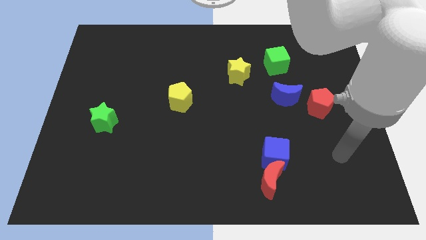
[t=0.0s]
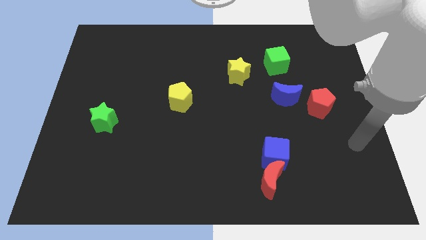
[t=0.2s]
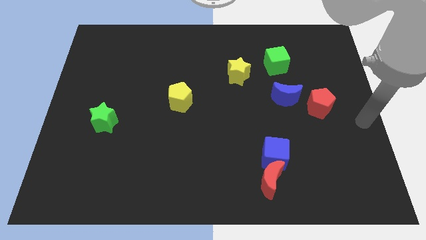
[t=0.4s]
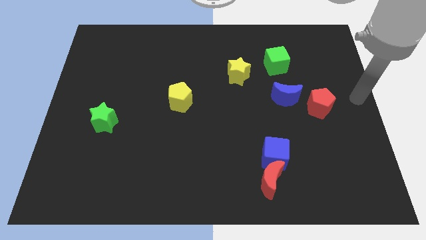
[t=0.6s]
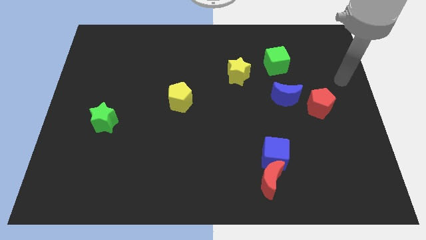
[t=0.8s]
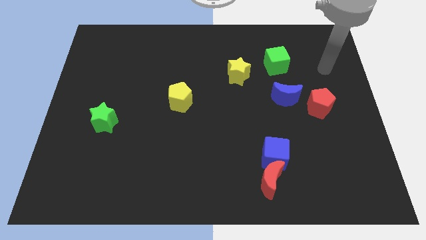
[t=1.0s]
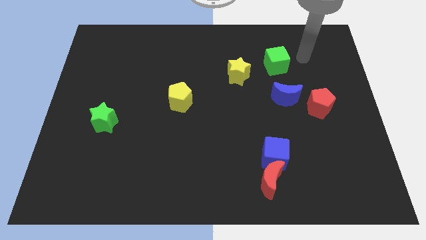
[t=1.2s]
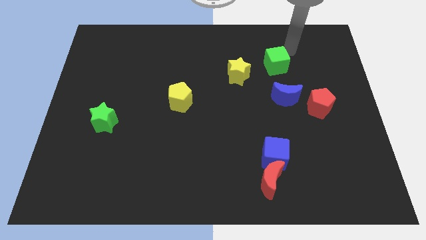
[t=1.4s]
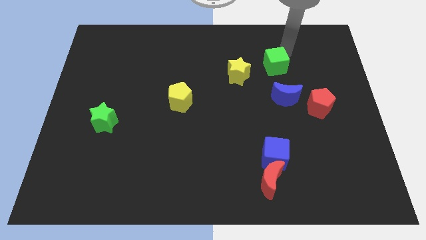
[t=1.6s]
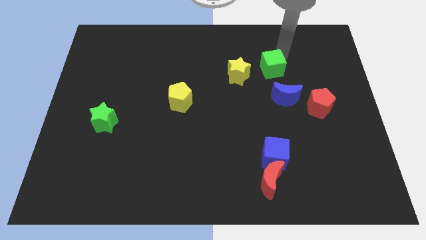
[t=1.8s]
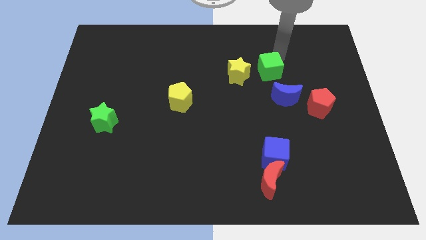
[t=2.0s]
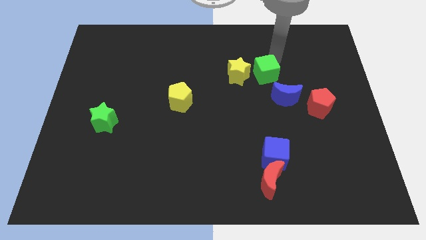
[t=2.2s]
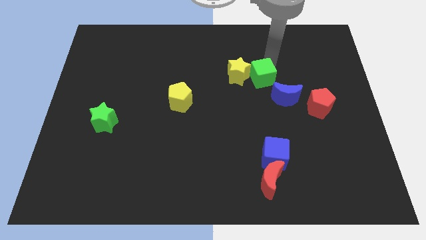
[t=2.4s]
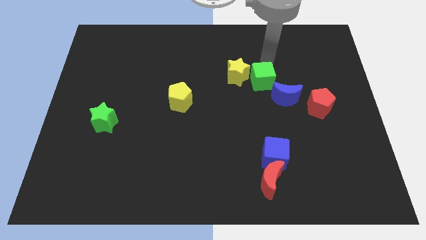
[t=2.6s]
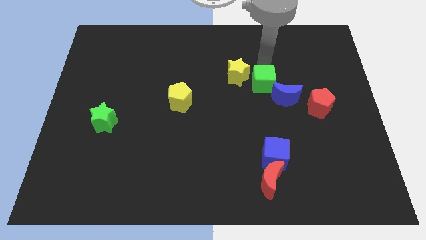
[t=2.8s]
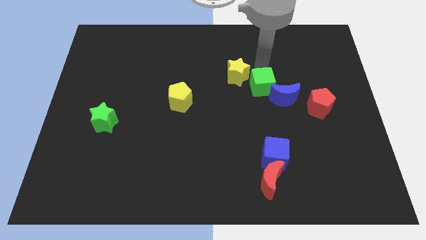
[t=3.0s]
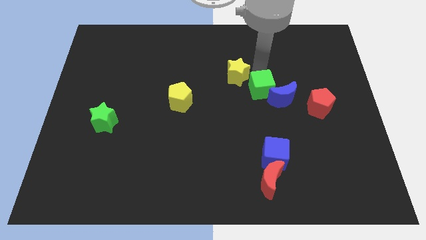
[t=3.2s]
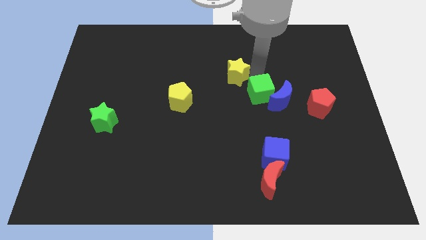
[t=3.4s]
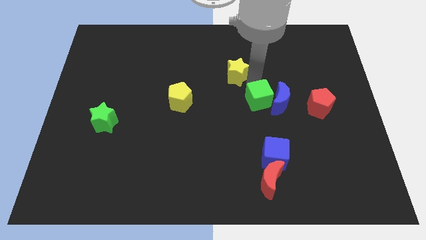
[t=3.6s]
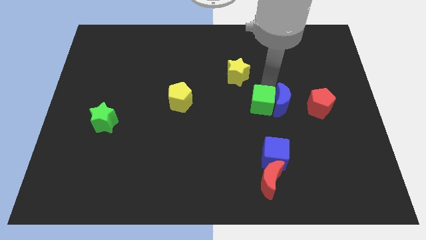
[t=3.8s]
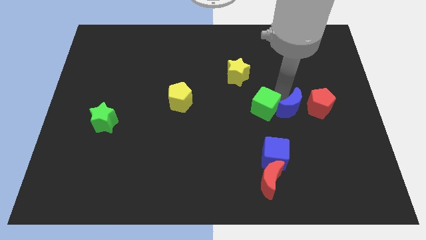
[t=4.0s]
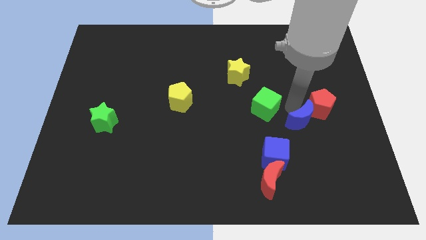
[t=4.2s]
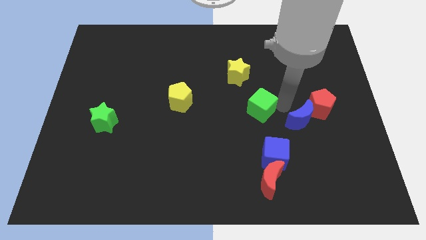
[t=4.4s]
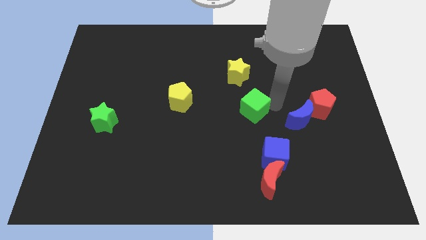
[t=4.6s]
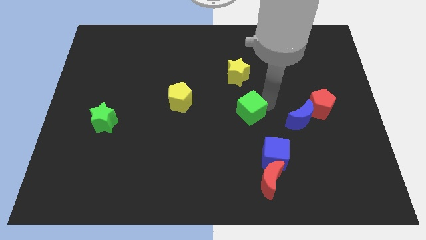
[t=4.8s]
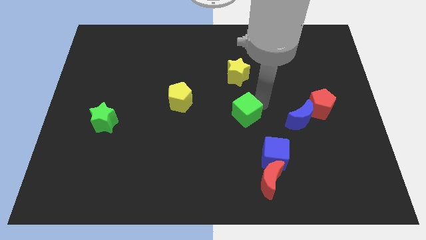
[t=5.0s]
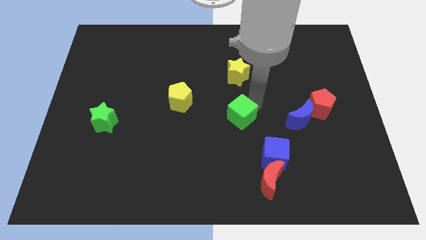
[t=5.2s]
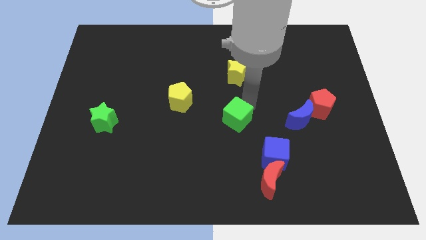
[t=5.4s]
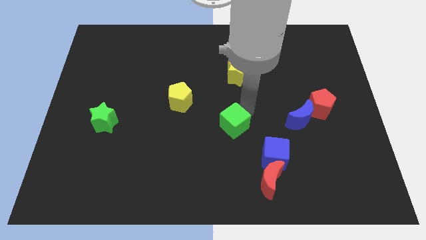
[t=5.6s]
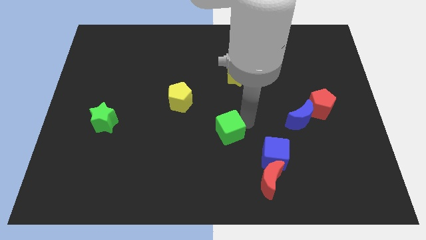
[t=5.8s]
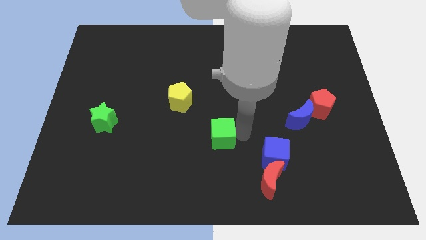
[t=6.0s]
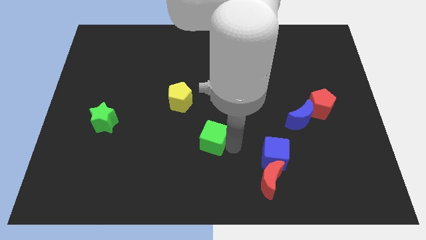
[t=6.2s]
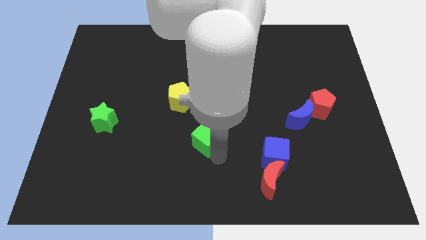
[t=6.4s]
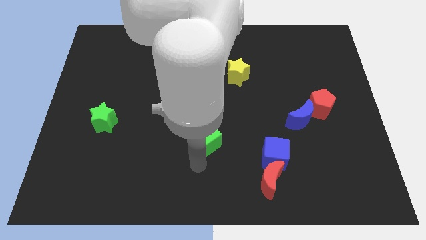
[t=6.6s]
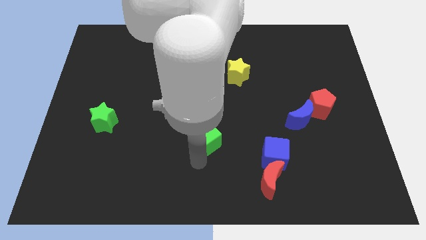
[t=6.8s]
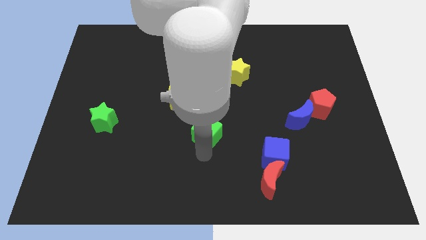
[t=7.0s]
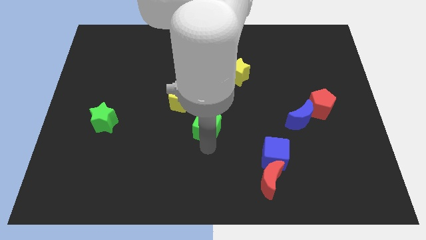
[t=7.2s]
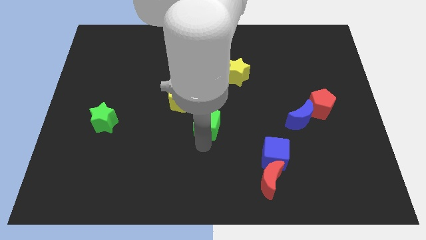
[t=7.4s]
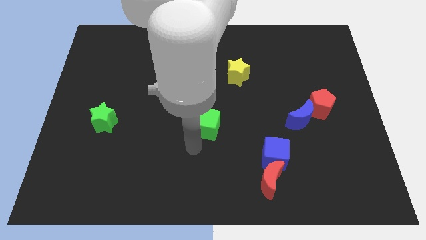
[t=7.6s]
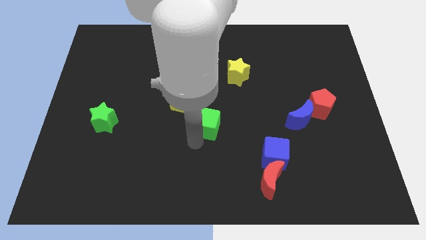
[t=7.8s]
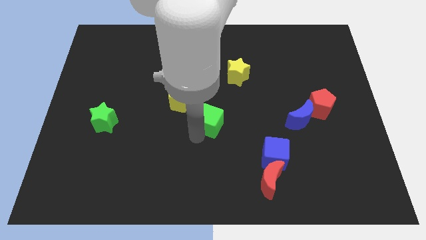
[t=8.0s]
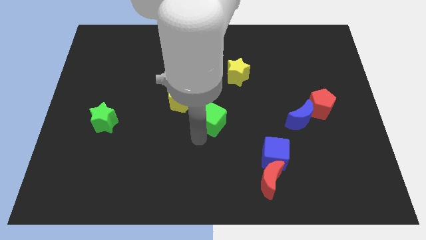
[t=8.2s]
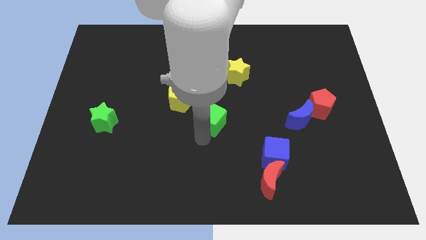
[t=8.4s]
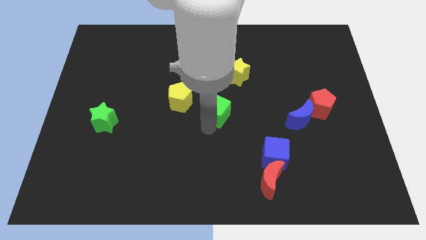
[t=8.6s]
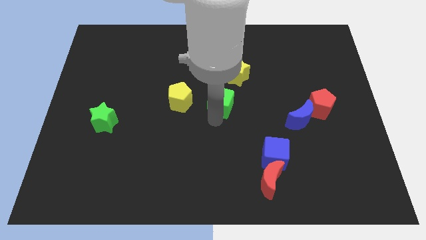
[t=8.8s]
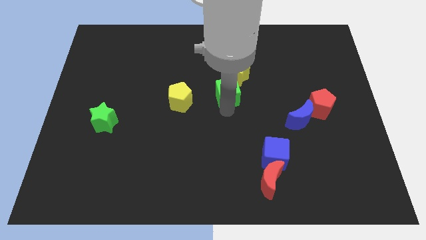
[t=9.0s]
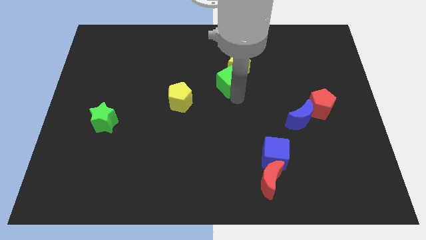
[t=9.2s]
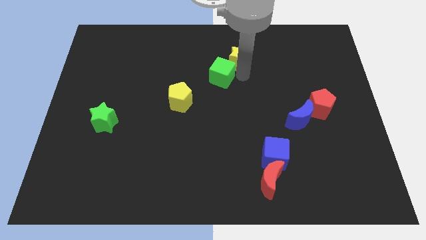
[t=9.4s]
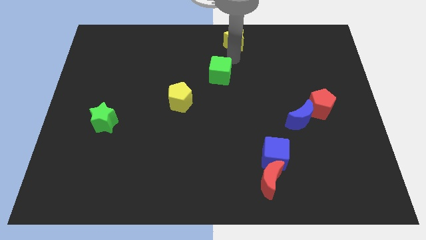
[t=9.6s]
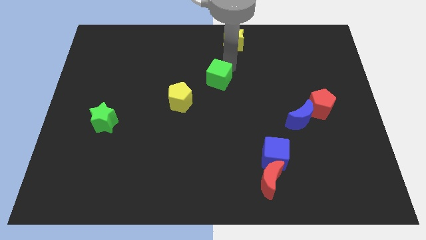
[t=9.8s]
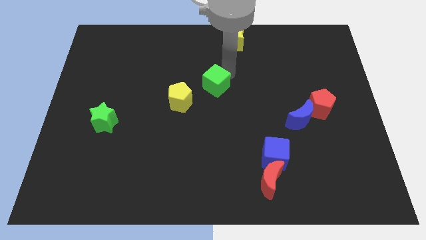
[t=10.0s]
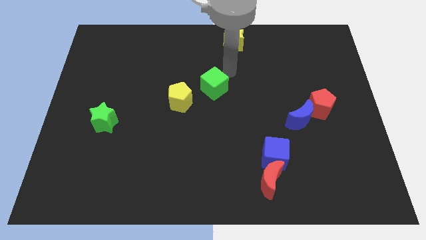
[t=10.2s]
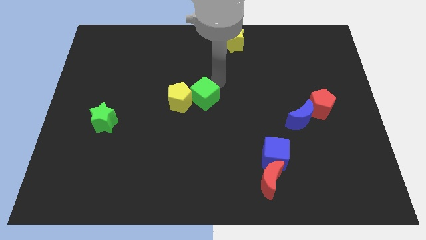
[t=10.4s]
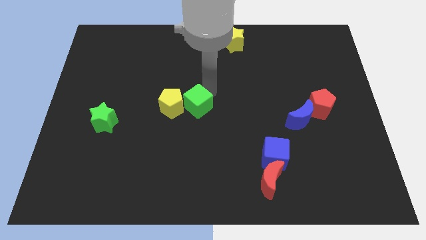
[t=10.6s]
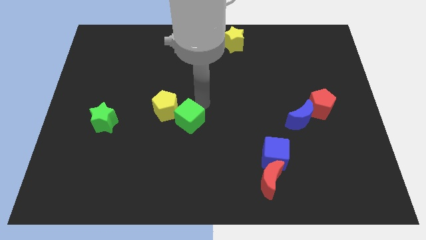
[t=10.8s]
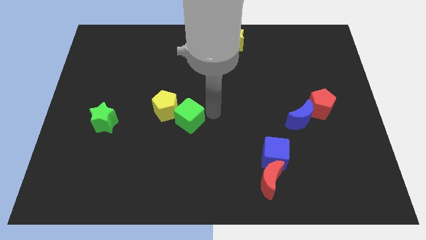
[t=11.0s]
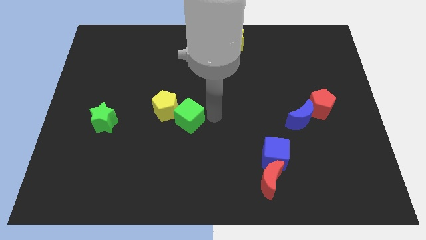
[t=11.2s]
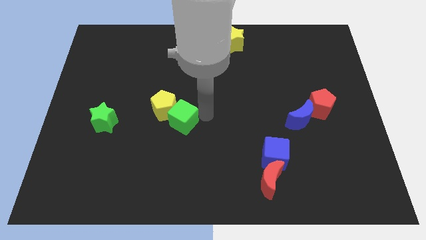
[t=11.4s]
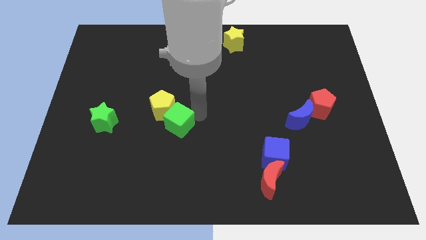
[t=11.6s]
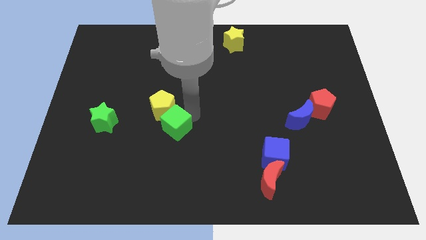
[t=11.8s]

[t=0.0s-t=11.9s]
slide the green cube to the right side of the green star
